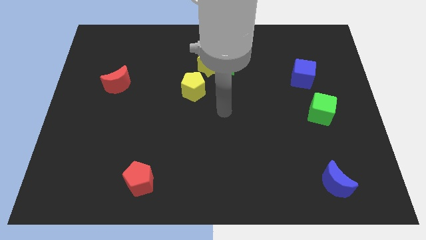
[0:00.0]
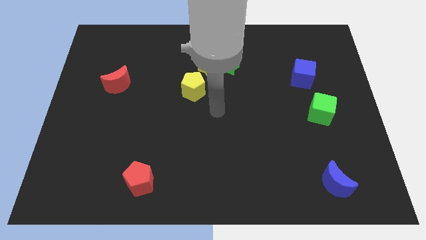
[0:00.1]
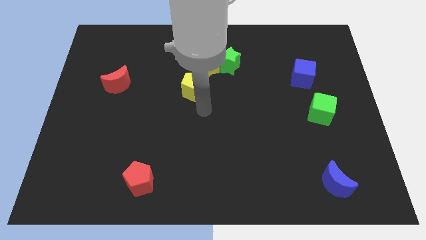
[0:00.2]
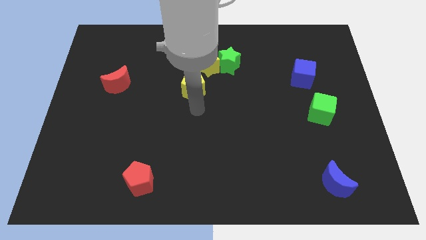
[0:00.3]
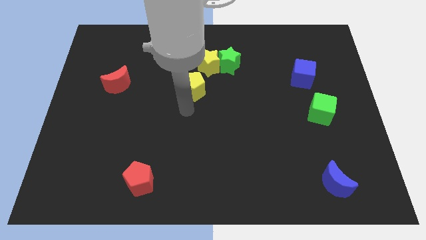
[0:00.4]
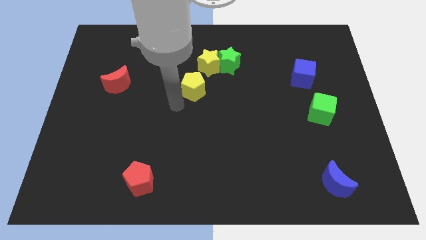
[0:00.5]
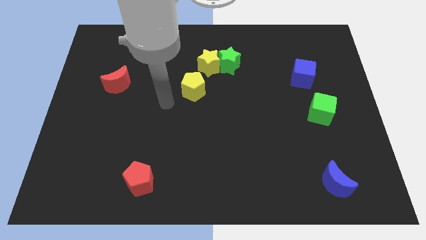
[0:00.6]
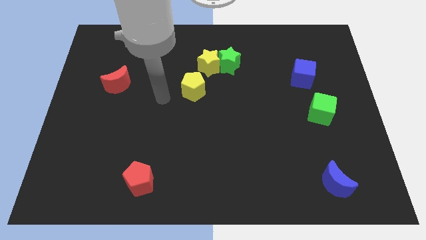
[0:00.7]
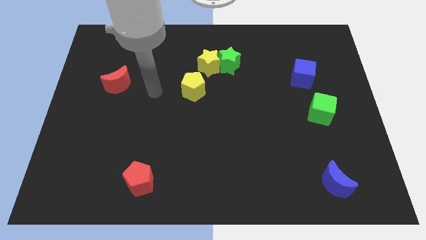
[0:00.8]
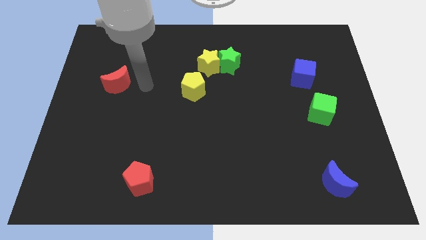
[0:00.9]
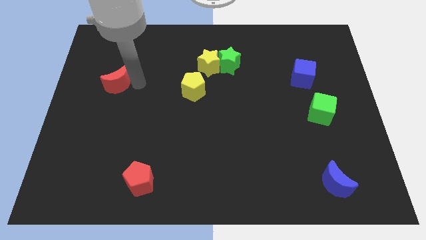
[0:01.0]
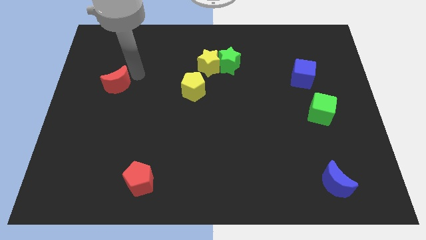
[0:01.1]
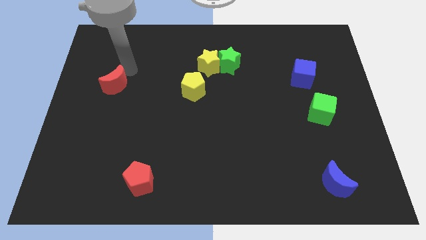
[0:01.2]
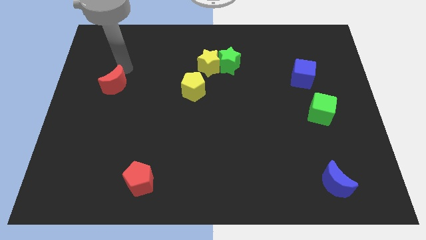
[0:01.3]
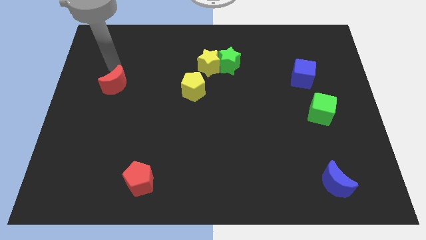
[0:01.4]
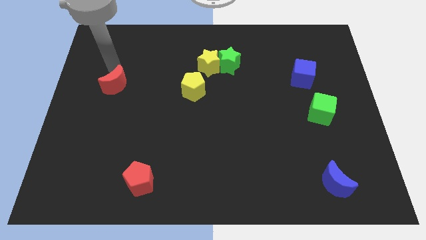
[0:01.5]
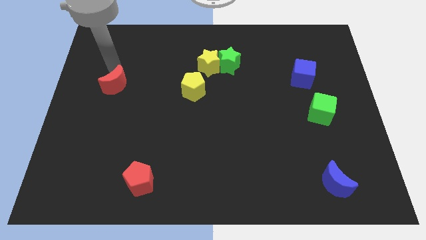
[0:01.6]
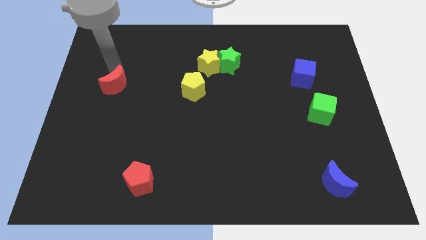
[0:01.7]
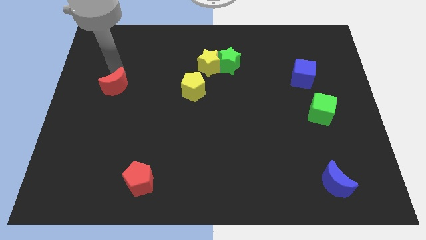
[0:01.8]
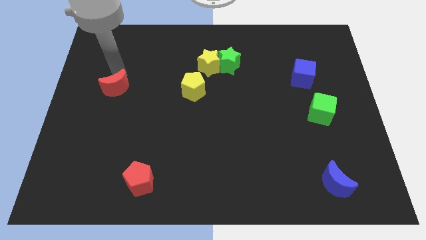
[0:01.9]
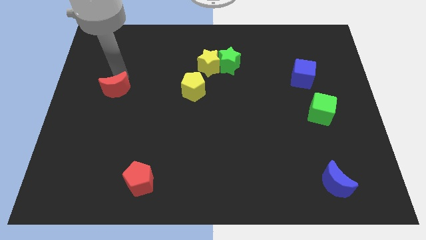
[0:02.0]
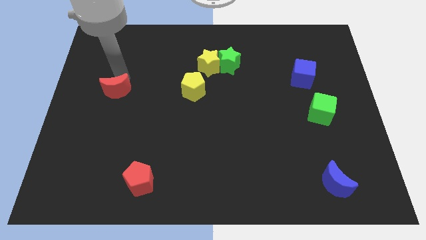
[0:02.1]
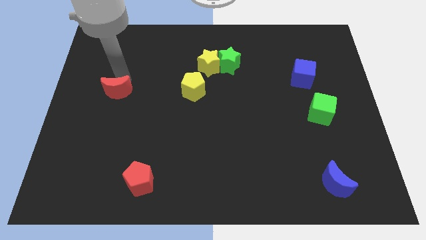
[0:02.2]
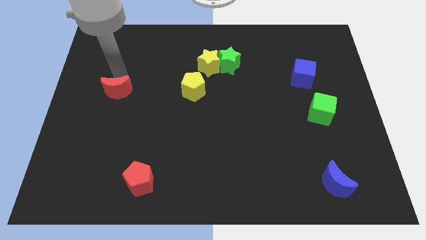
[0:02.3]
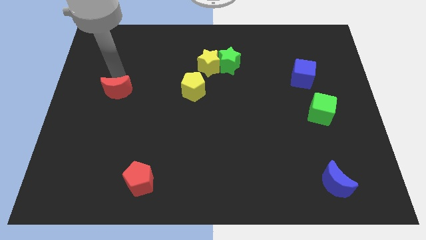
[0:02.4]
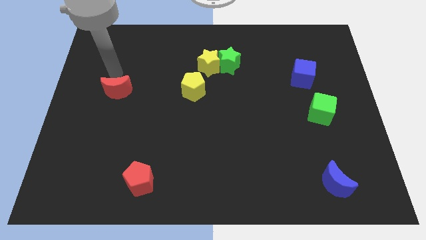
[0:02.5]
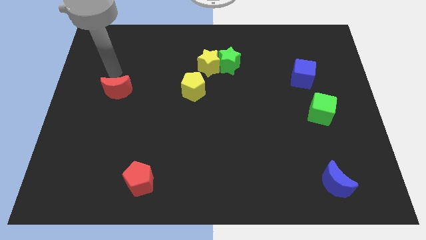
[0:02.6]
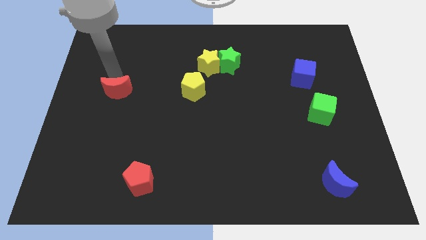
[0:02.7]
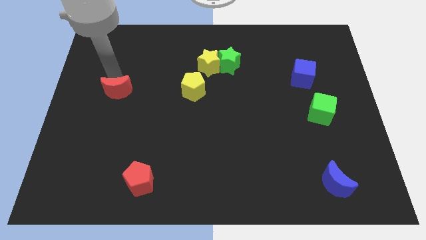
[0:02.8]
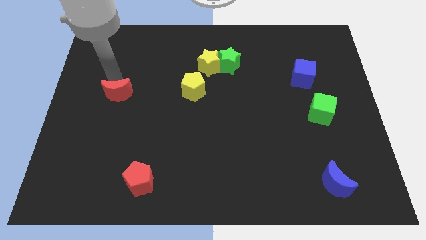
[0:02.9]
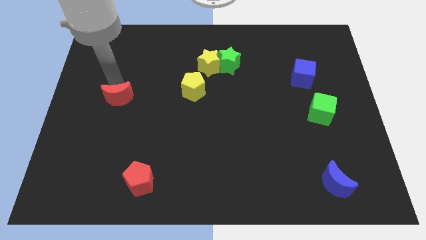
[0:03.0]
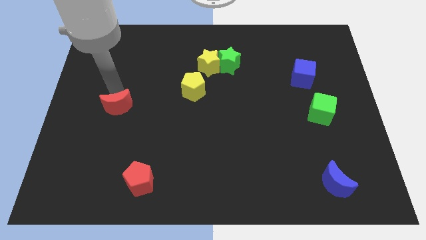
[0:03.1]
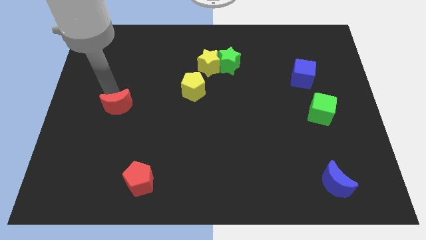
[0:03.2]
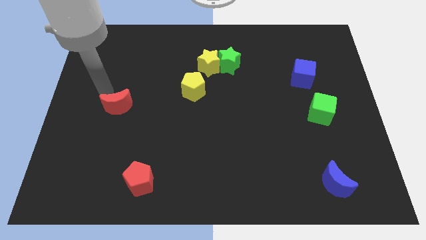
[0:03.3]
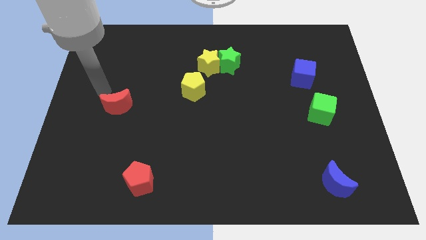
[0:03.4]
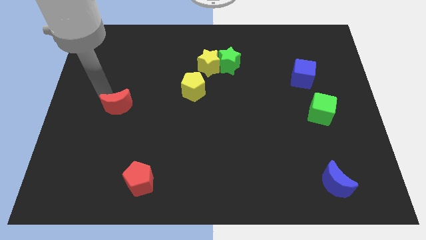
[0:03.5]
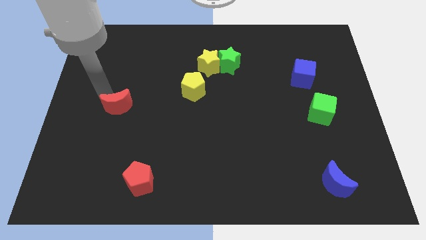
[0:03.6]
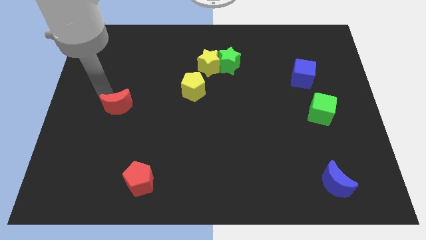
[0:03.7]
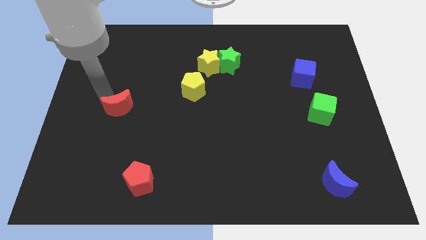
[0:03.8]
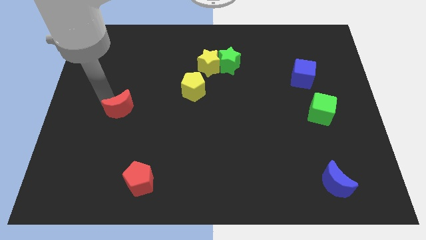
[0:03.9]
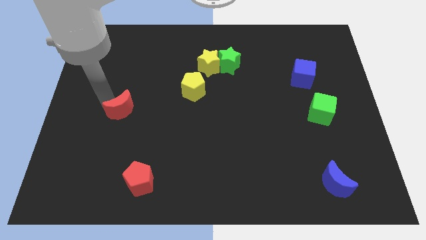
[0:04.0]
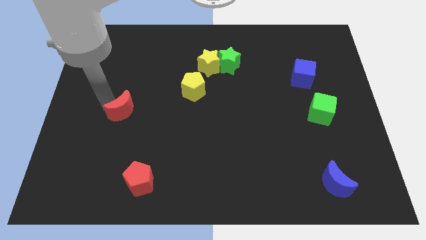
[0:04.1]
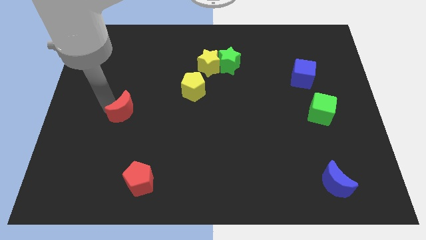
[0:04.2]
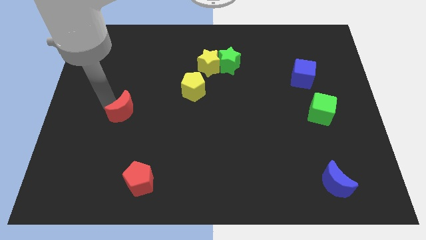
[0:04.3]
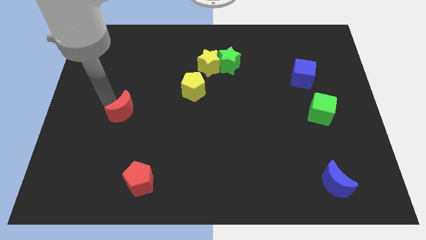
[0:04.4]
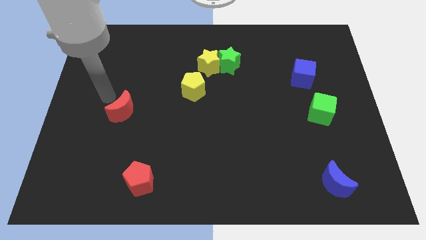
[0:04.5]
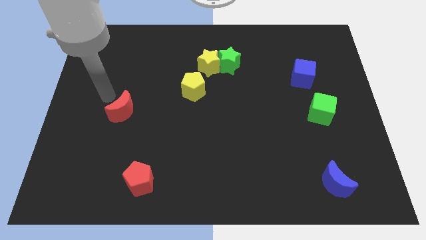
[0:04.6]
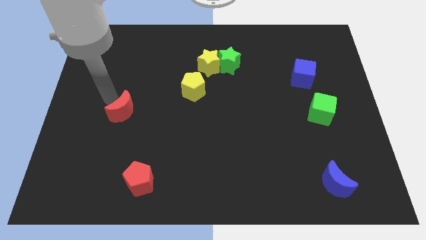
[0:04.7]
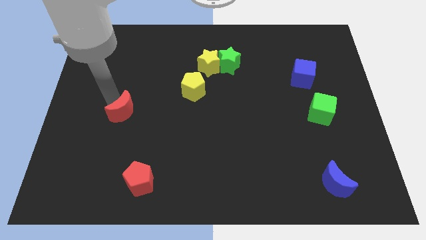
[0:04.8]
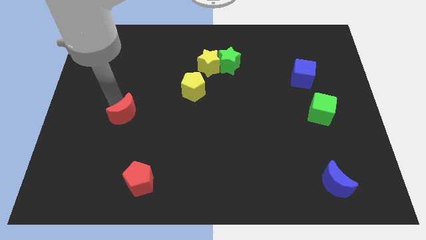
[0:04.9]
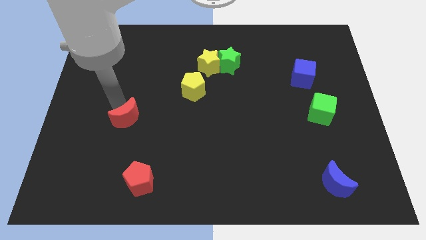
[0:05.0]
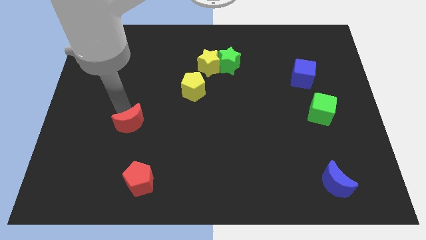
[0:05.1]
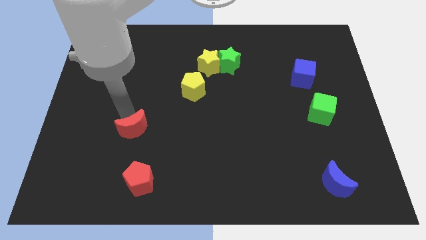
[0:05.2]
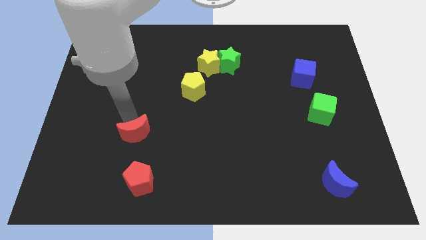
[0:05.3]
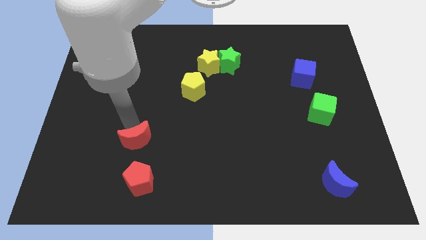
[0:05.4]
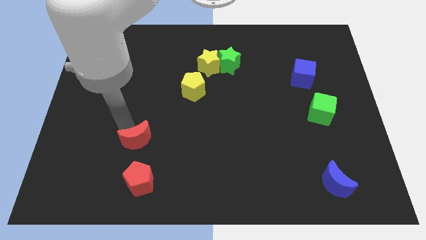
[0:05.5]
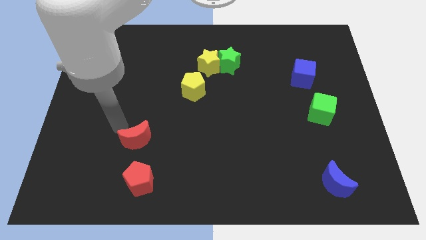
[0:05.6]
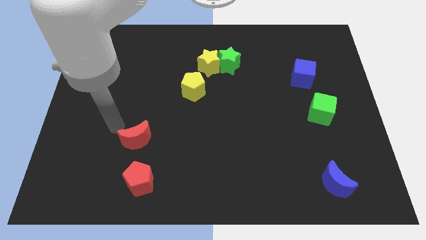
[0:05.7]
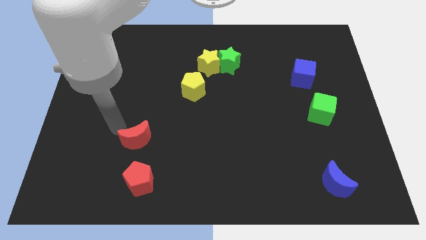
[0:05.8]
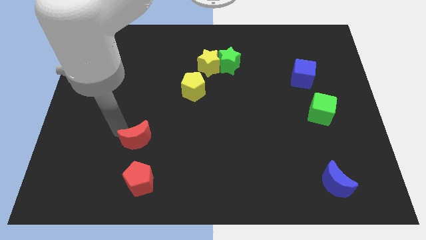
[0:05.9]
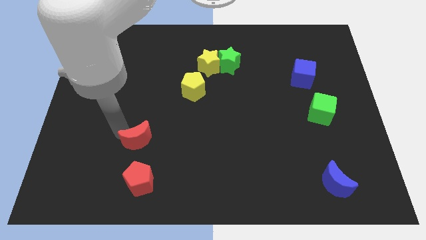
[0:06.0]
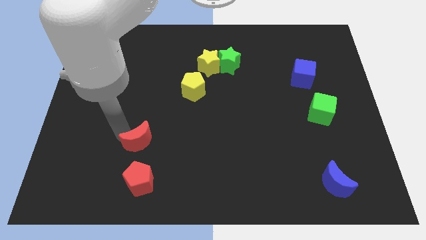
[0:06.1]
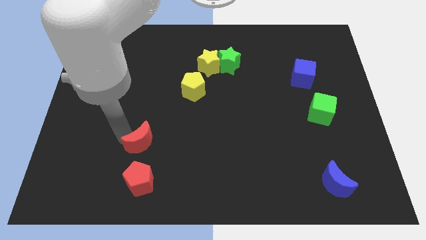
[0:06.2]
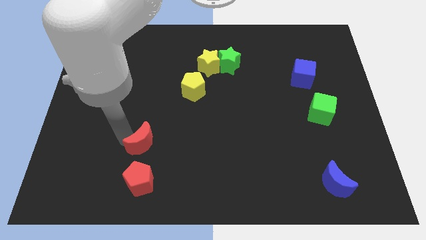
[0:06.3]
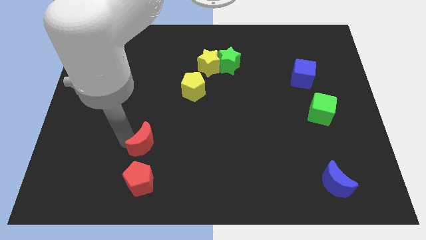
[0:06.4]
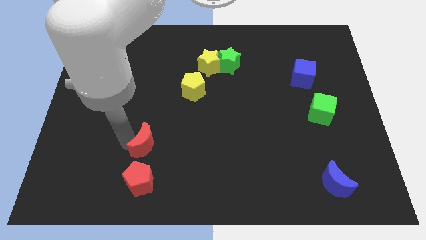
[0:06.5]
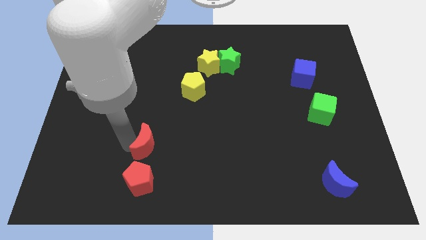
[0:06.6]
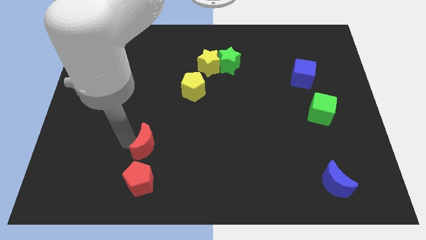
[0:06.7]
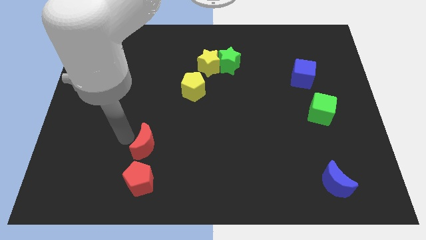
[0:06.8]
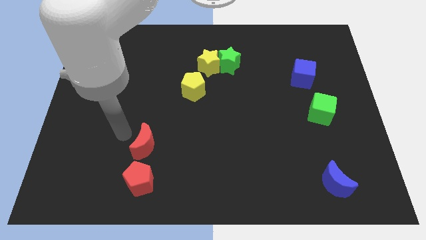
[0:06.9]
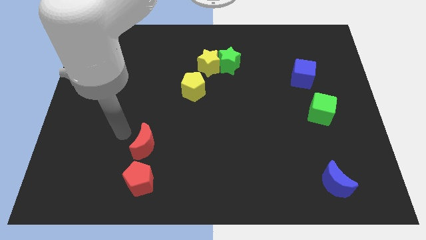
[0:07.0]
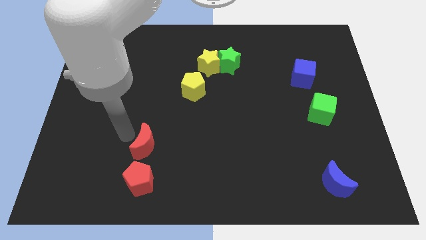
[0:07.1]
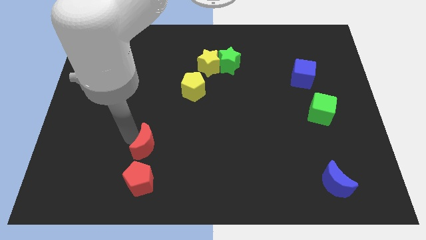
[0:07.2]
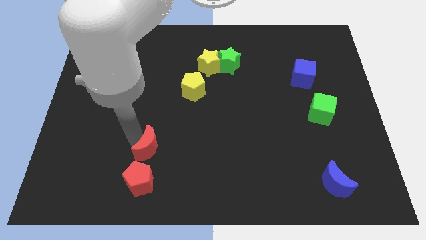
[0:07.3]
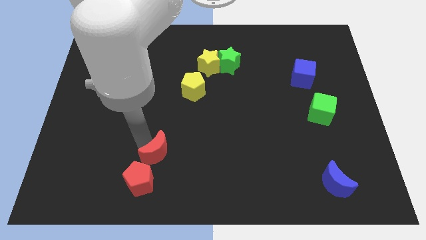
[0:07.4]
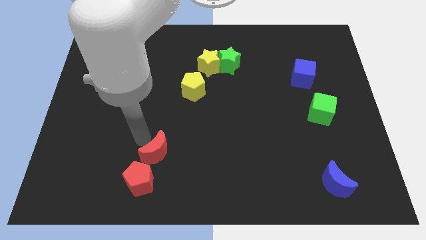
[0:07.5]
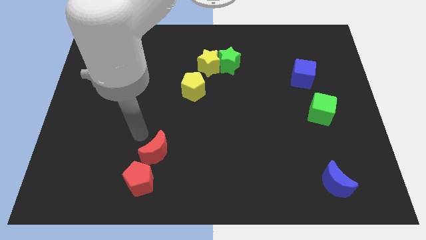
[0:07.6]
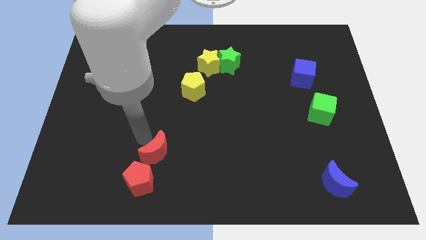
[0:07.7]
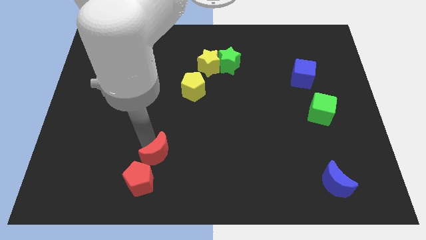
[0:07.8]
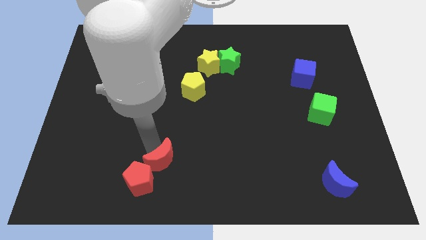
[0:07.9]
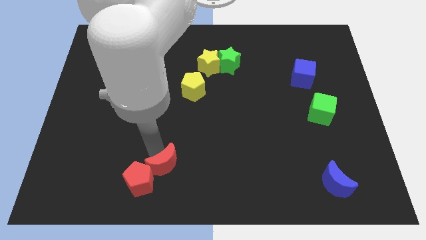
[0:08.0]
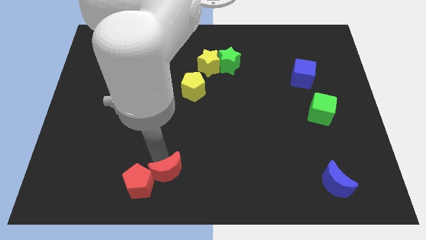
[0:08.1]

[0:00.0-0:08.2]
slide the red moon to the bottom side
